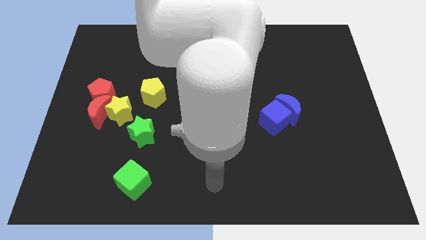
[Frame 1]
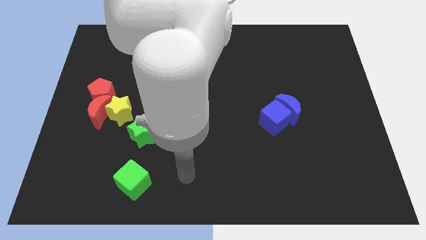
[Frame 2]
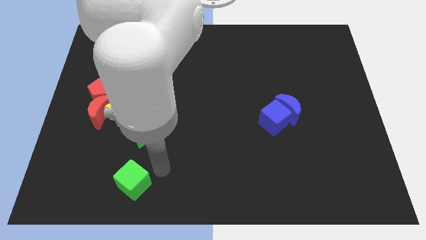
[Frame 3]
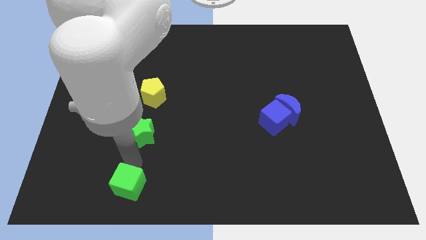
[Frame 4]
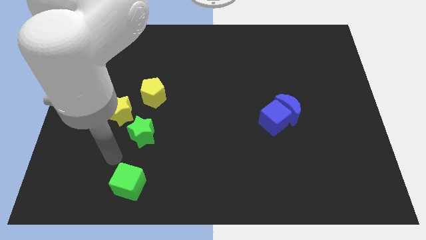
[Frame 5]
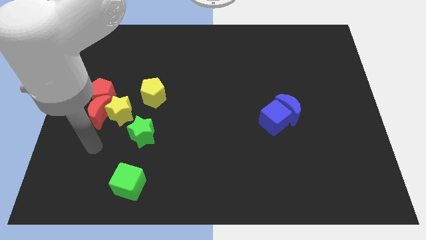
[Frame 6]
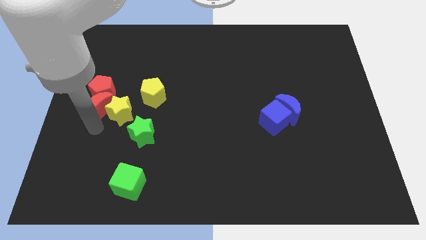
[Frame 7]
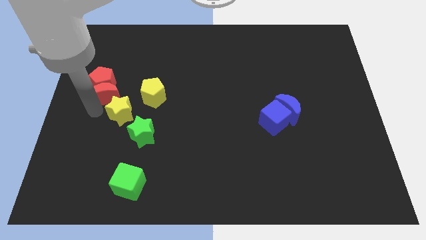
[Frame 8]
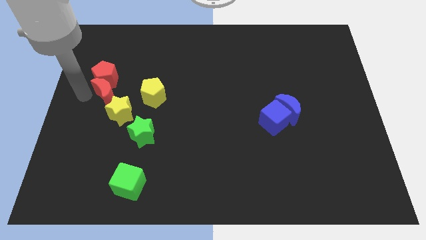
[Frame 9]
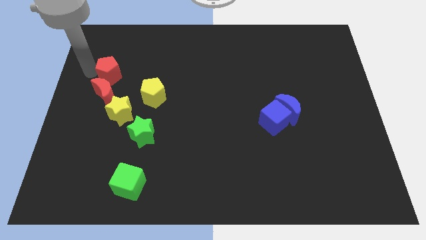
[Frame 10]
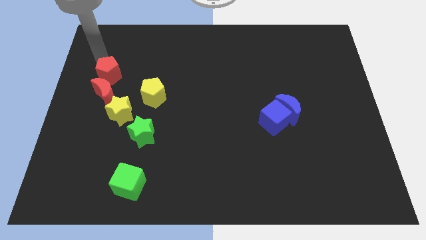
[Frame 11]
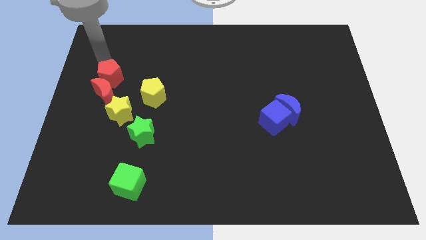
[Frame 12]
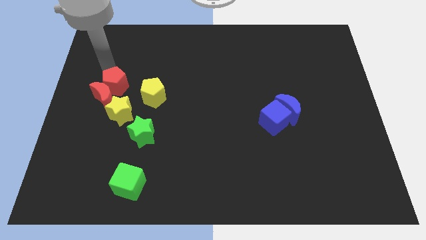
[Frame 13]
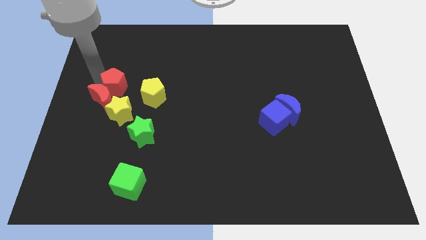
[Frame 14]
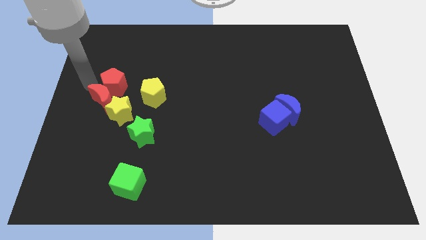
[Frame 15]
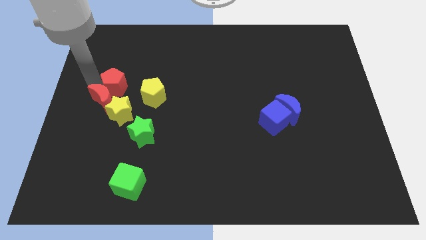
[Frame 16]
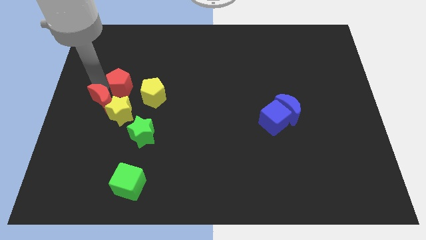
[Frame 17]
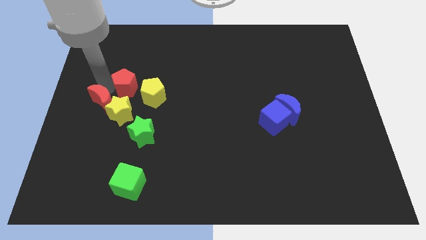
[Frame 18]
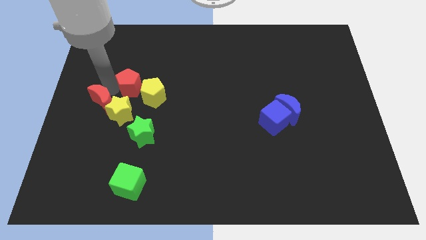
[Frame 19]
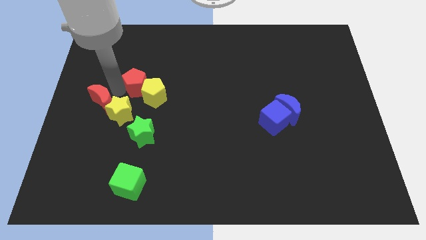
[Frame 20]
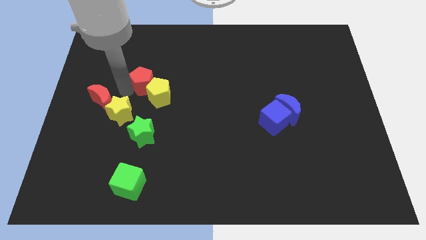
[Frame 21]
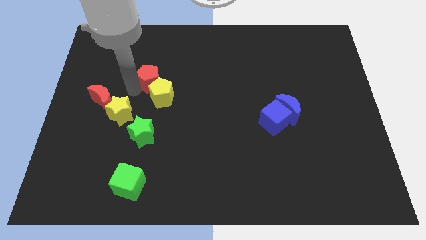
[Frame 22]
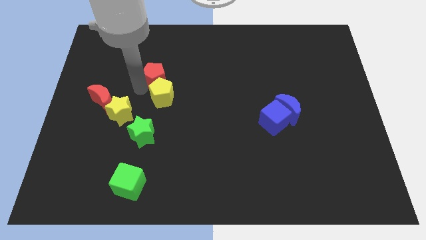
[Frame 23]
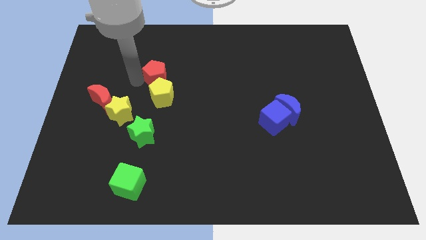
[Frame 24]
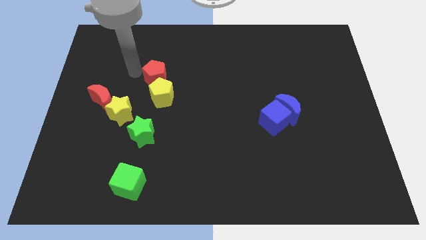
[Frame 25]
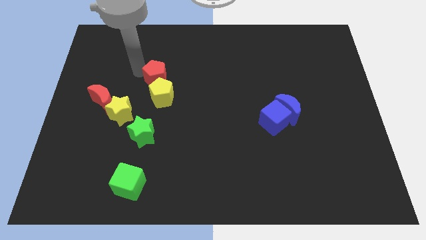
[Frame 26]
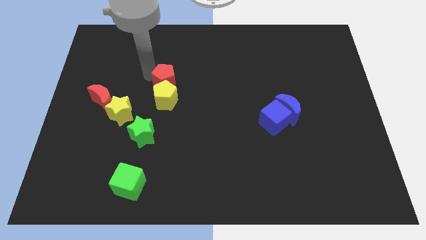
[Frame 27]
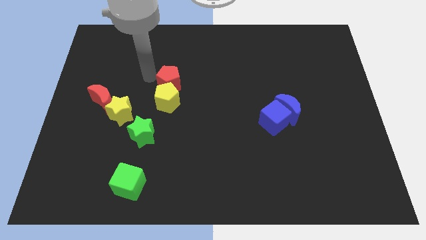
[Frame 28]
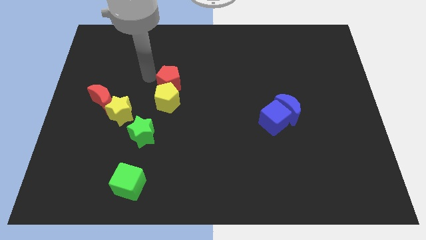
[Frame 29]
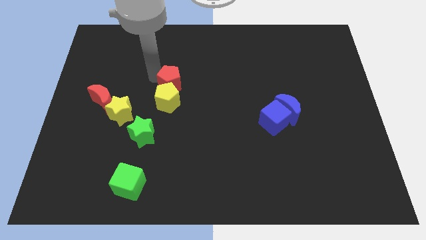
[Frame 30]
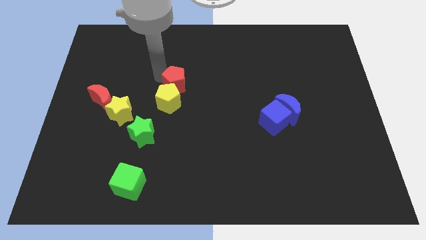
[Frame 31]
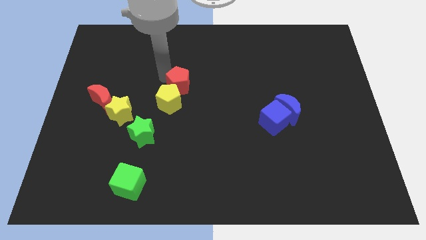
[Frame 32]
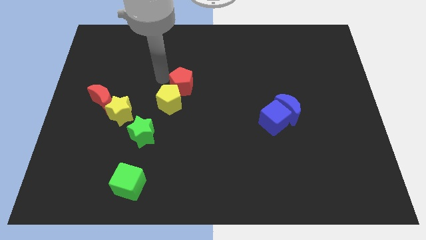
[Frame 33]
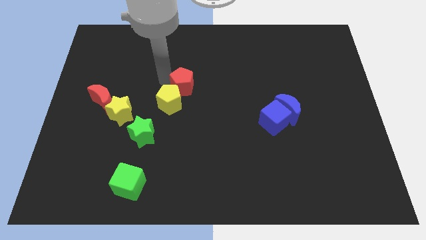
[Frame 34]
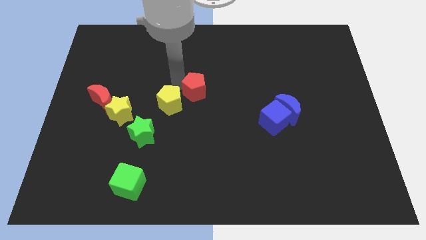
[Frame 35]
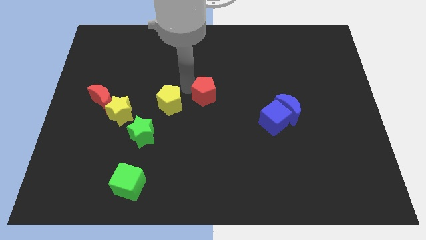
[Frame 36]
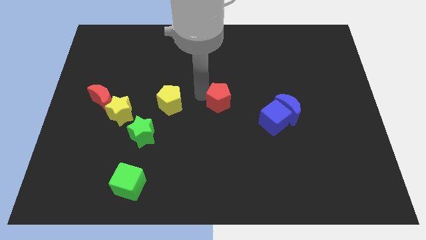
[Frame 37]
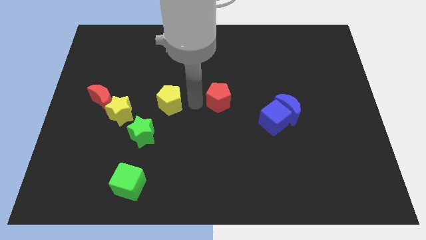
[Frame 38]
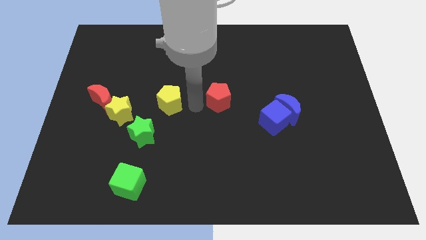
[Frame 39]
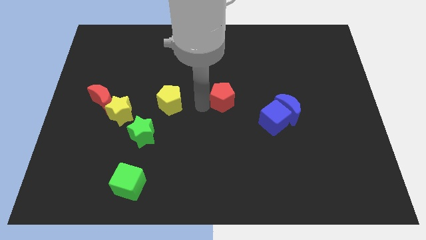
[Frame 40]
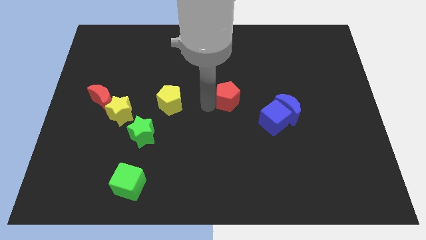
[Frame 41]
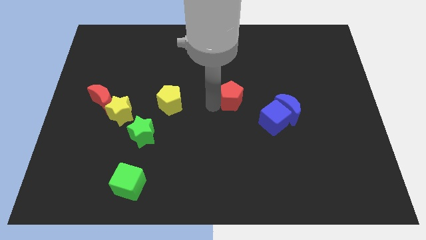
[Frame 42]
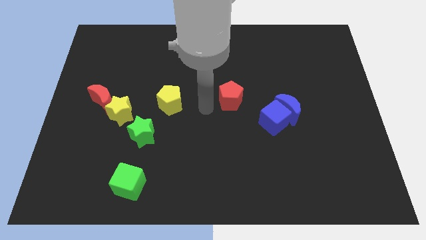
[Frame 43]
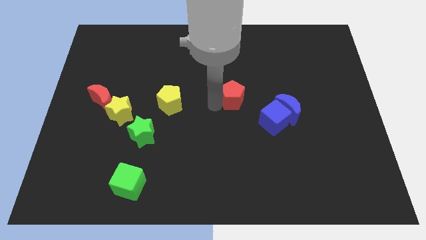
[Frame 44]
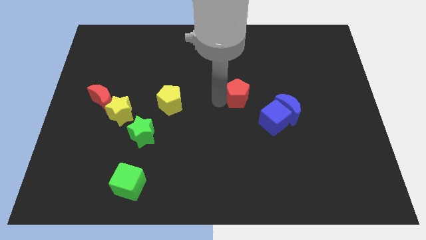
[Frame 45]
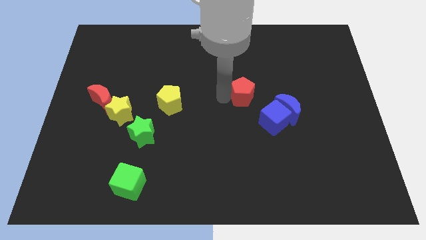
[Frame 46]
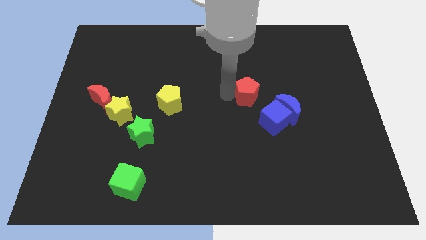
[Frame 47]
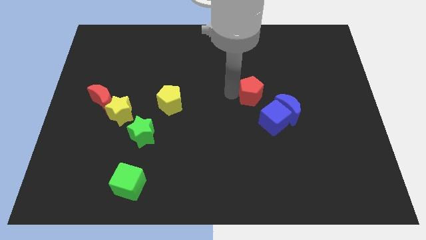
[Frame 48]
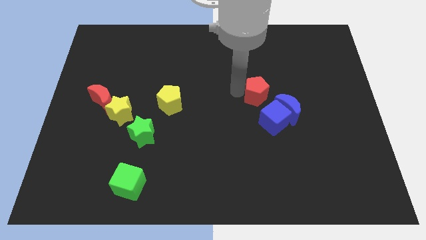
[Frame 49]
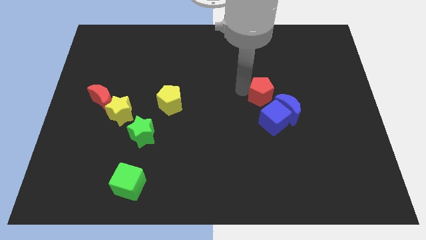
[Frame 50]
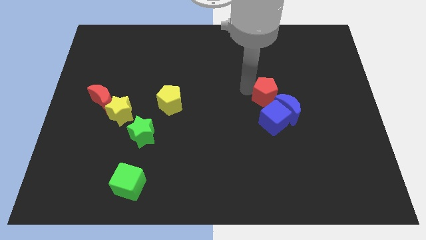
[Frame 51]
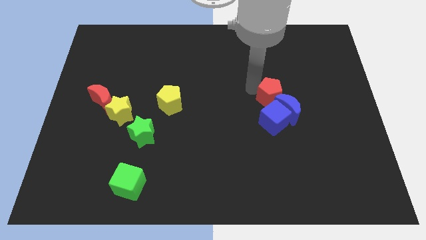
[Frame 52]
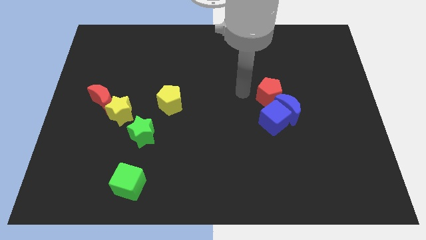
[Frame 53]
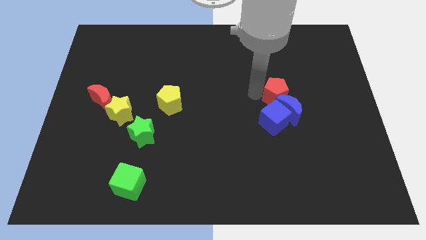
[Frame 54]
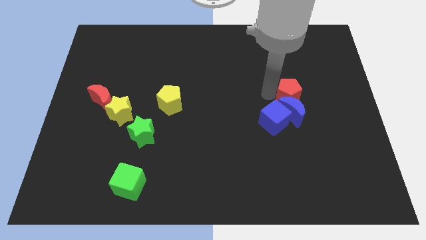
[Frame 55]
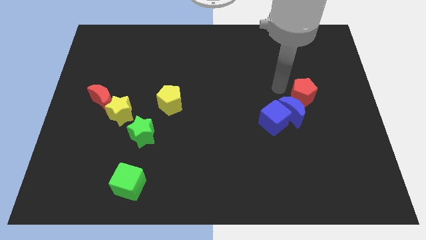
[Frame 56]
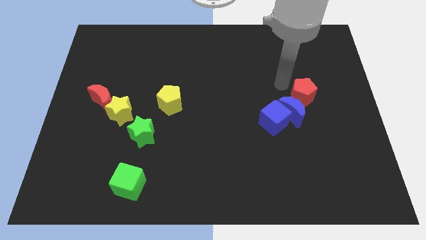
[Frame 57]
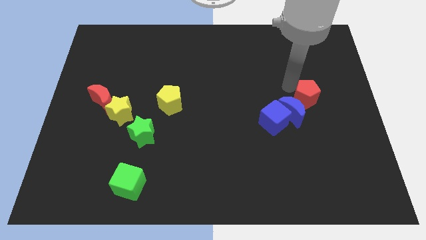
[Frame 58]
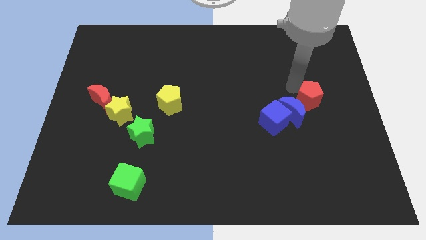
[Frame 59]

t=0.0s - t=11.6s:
slide the red pentagon to the right side of the blue moon

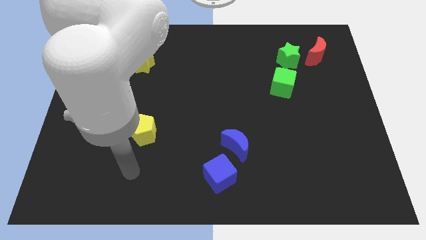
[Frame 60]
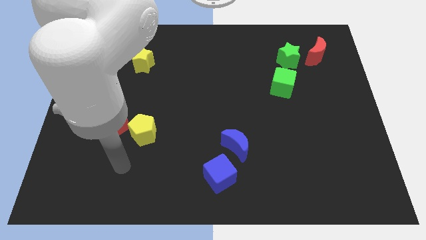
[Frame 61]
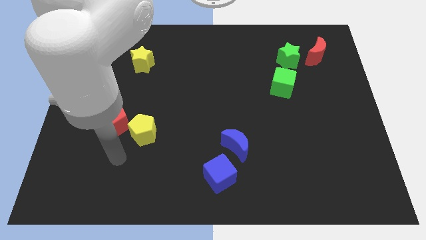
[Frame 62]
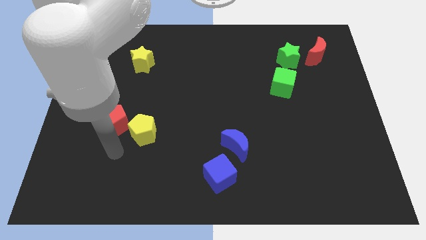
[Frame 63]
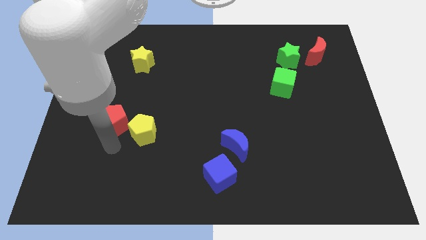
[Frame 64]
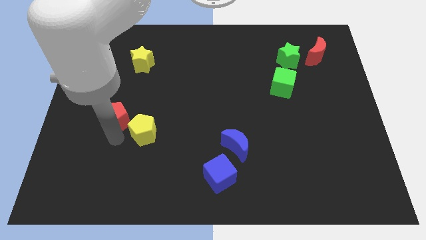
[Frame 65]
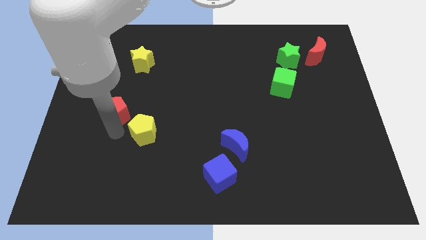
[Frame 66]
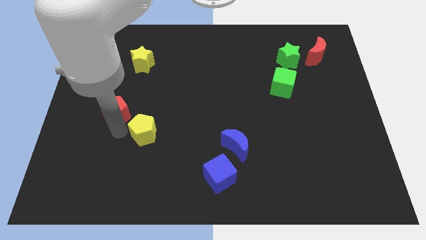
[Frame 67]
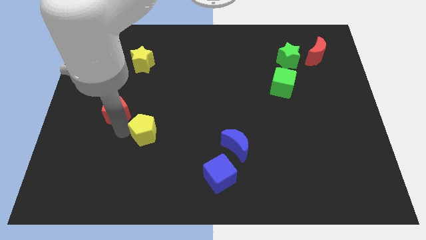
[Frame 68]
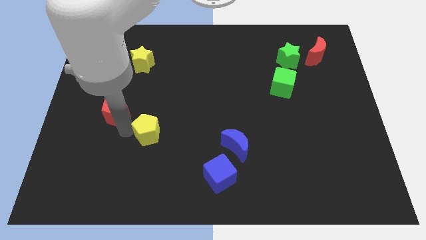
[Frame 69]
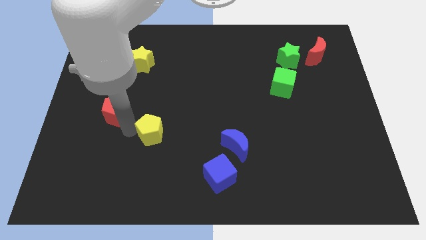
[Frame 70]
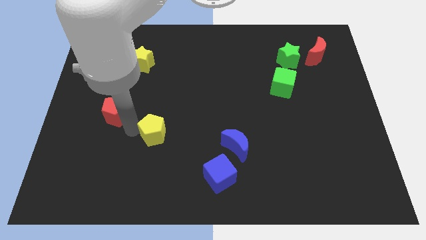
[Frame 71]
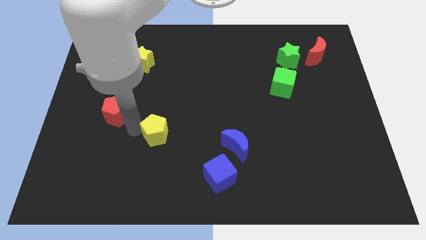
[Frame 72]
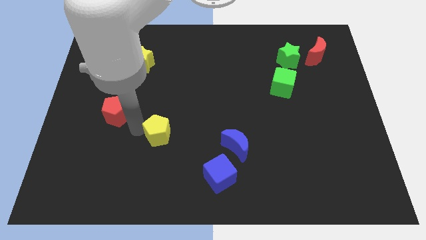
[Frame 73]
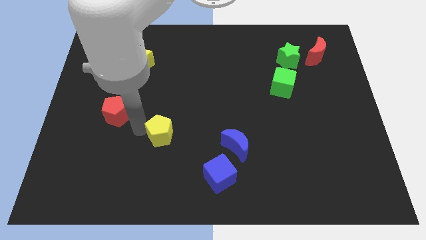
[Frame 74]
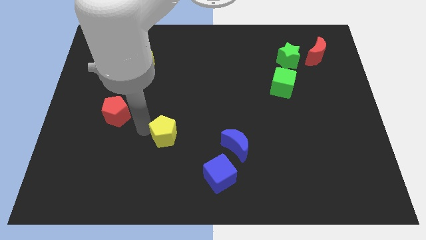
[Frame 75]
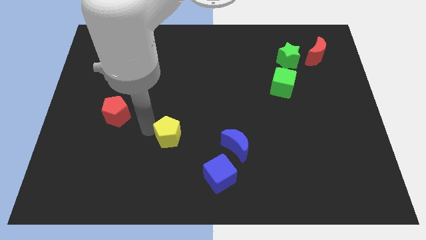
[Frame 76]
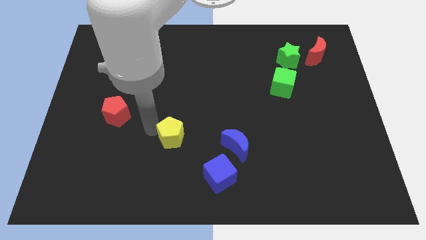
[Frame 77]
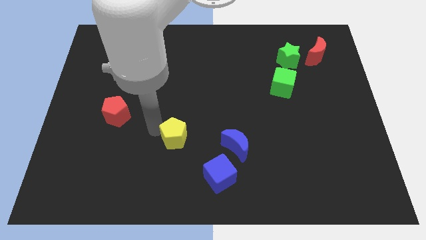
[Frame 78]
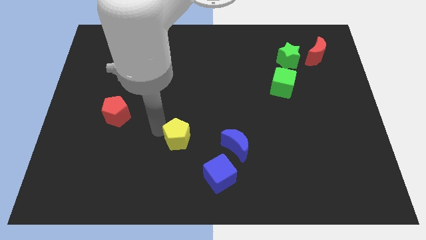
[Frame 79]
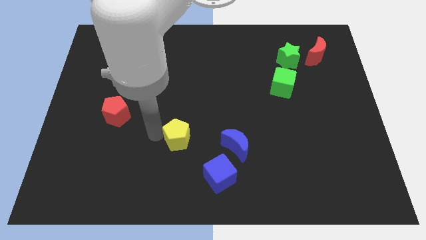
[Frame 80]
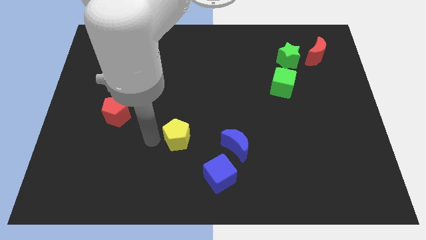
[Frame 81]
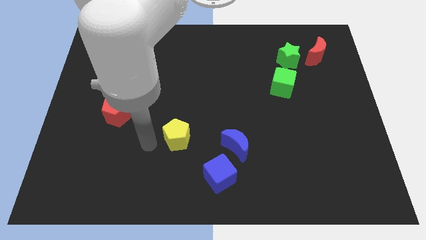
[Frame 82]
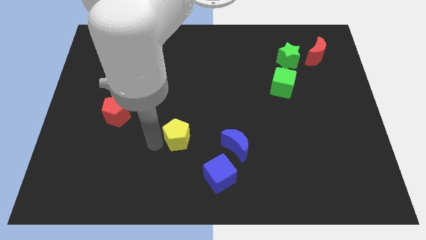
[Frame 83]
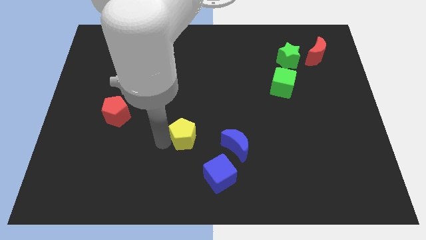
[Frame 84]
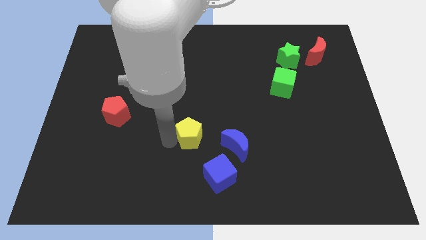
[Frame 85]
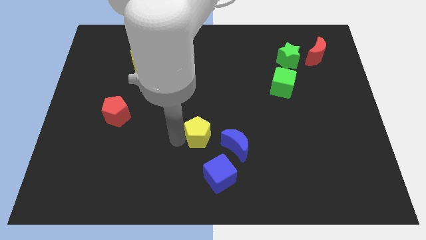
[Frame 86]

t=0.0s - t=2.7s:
move the yellow pentagon above the blue cube
